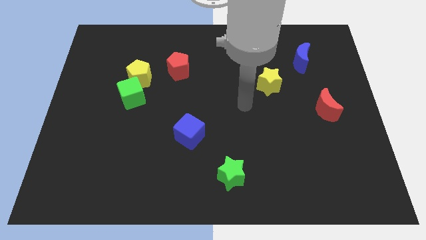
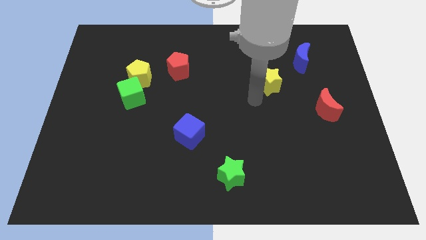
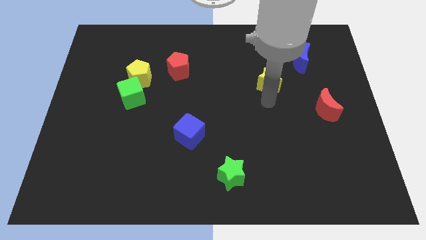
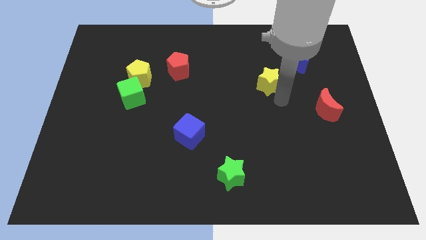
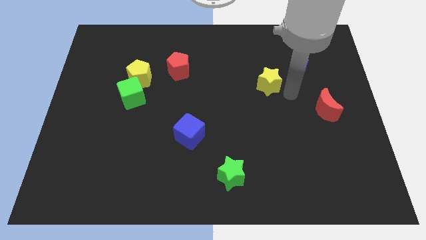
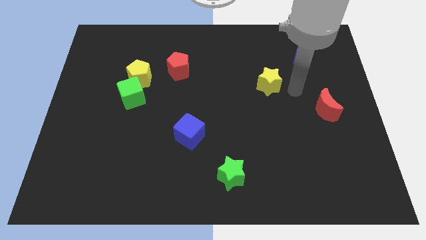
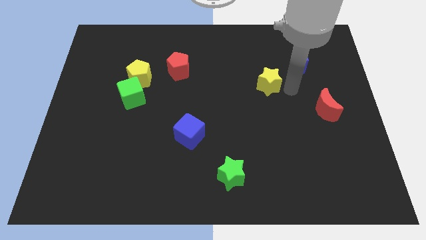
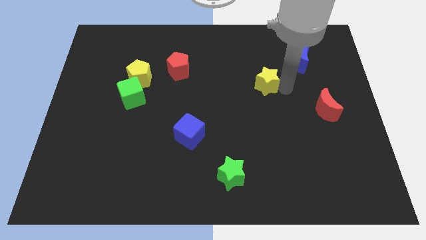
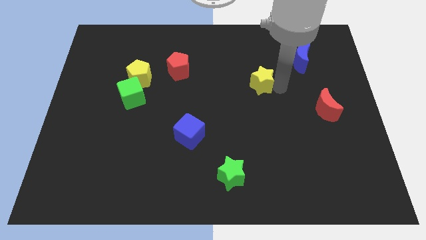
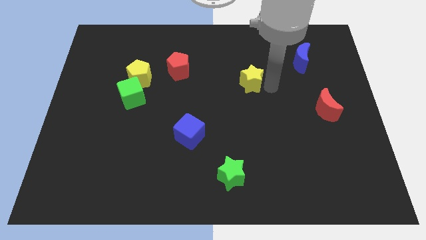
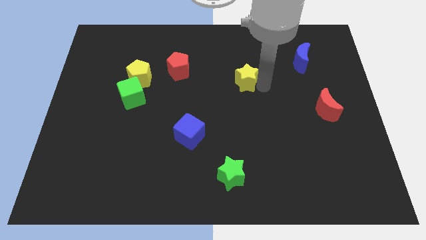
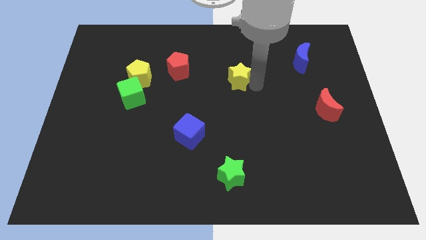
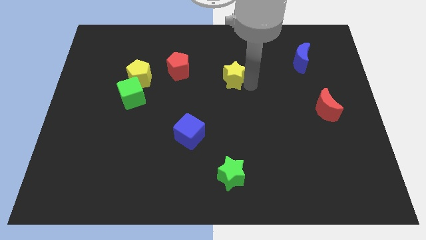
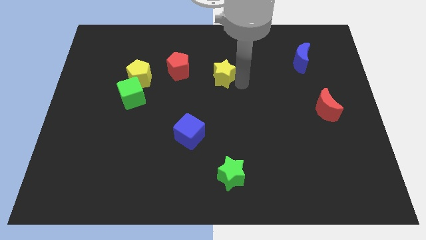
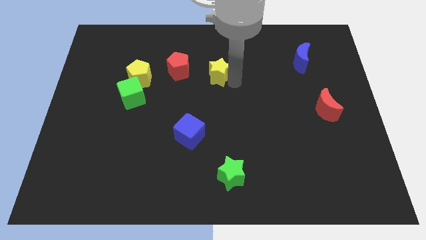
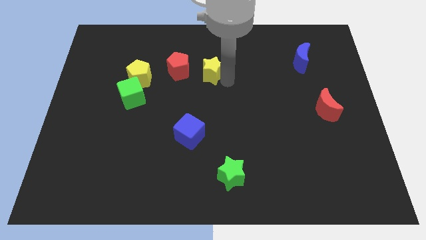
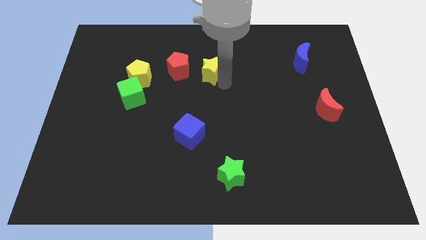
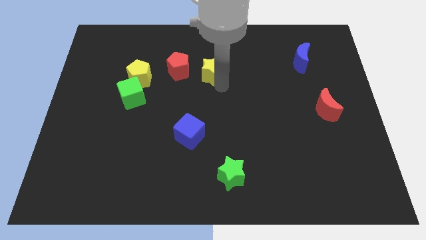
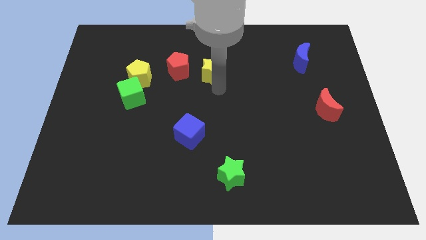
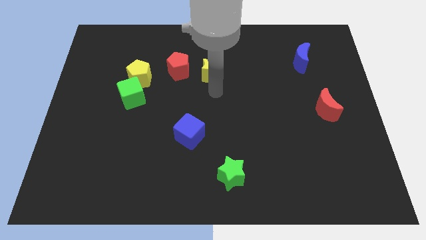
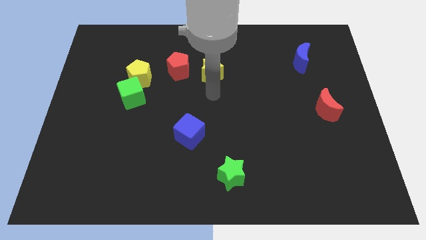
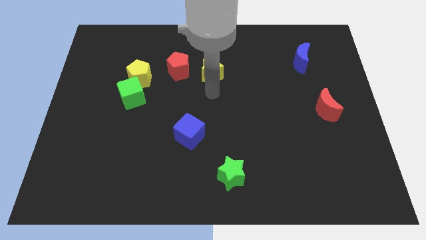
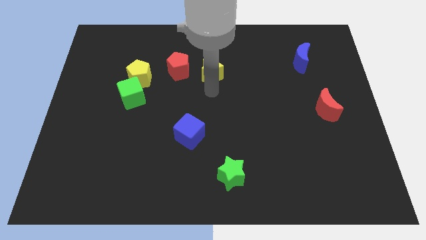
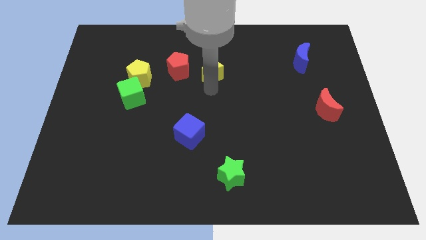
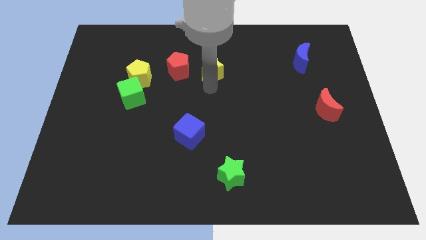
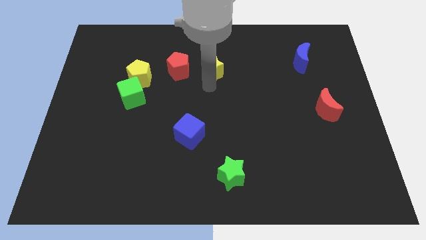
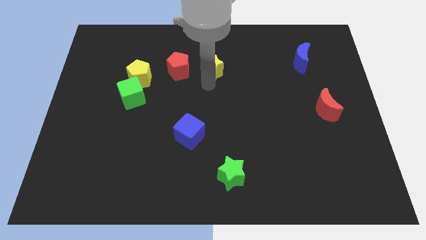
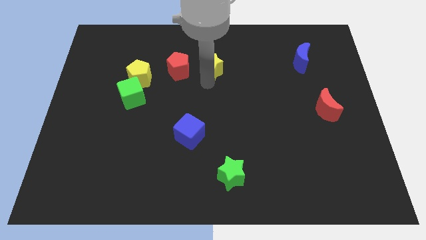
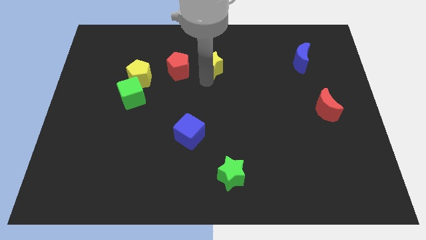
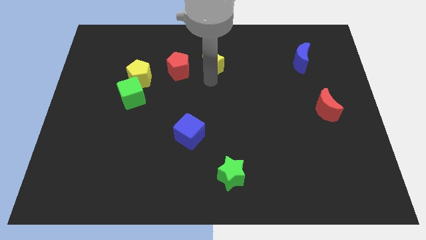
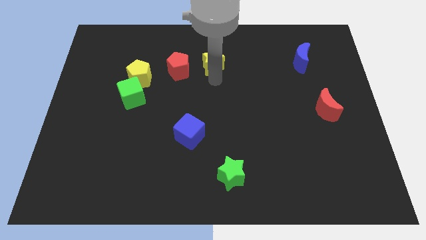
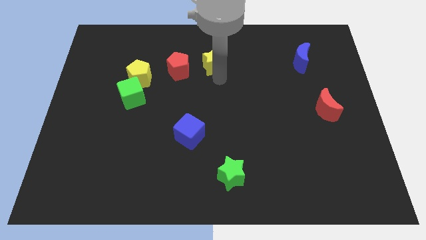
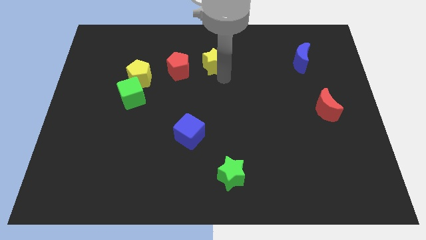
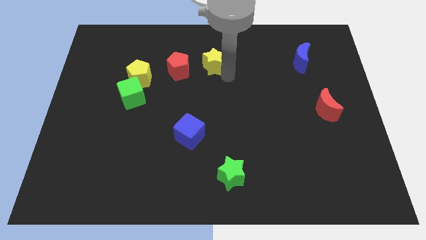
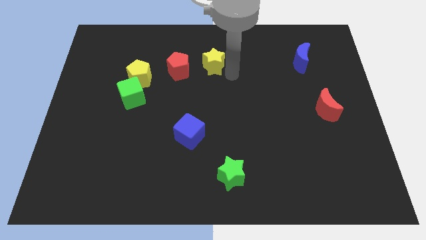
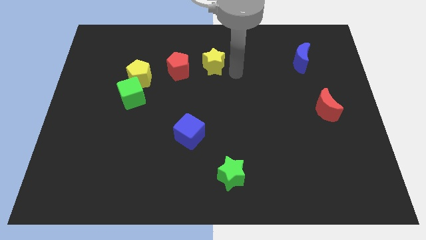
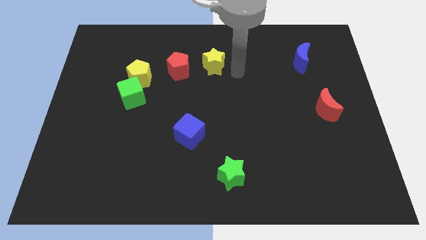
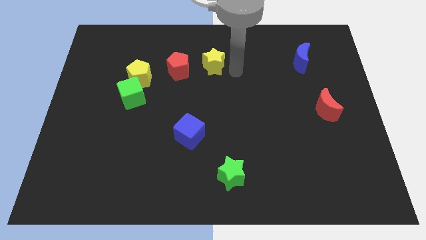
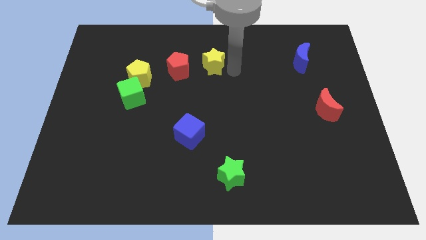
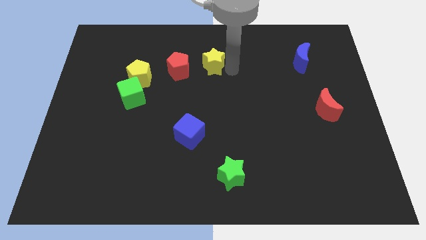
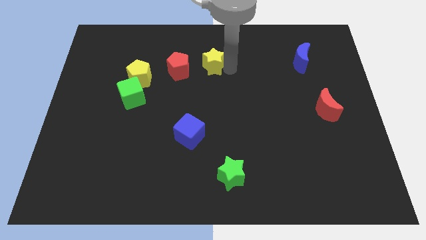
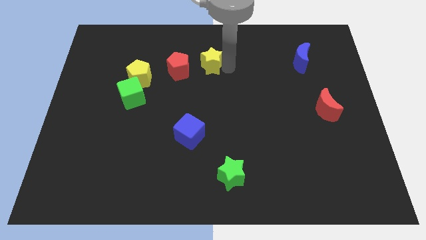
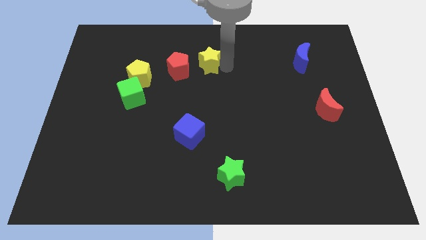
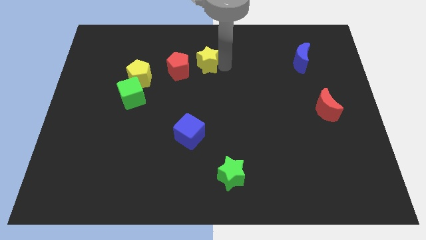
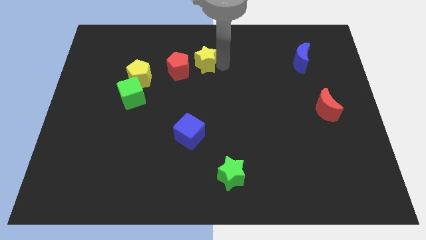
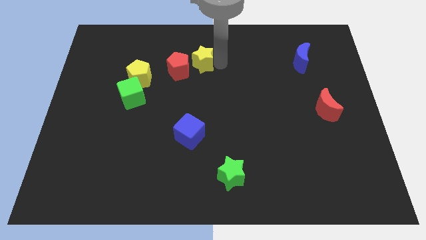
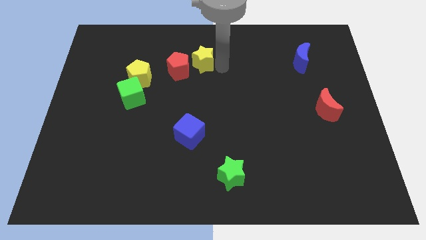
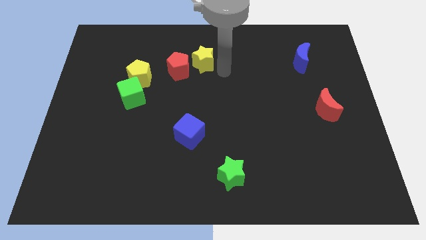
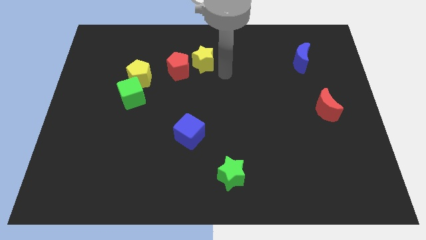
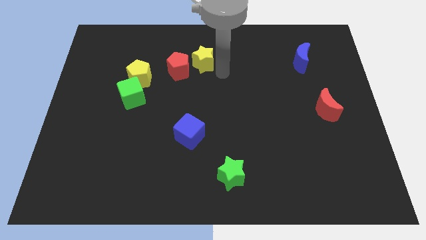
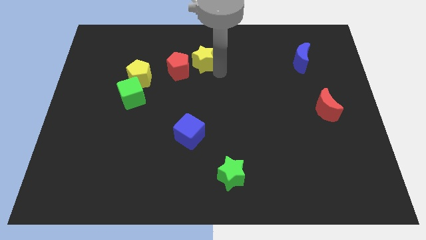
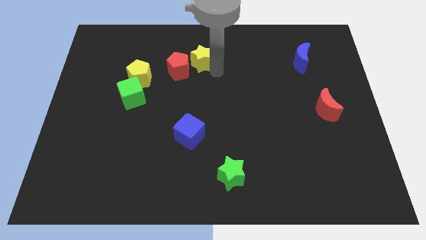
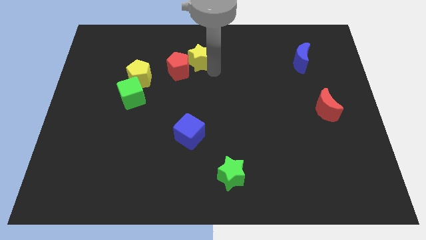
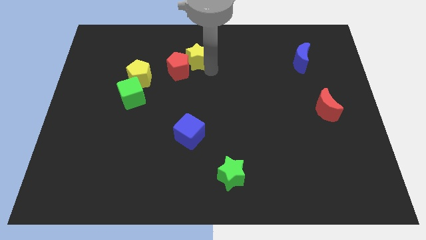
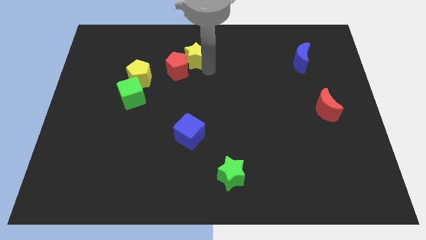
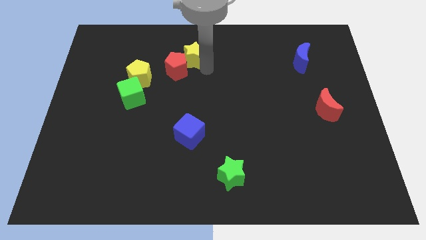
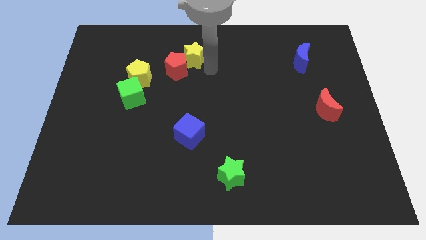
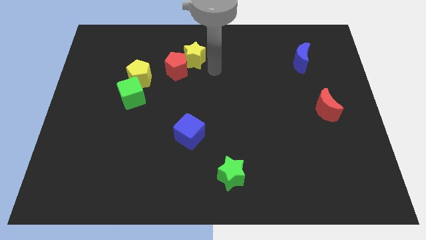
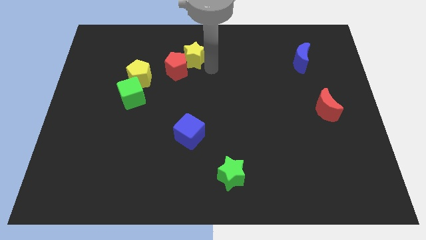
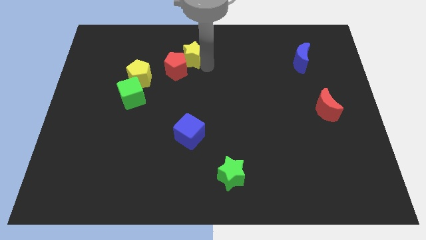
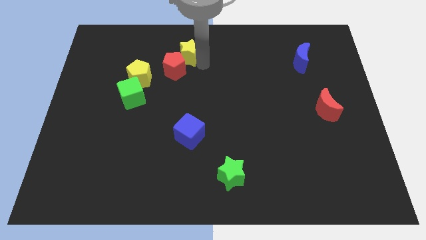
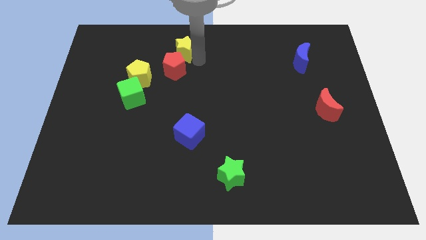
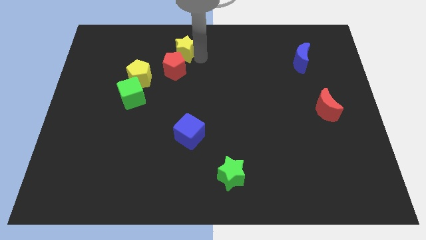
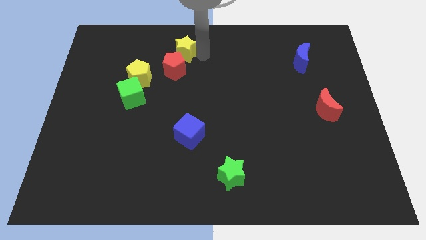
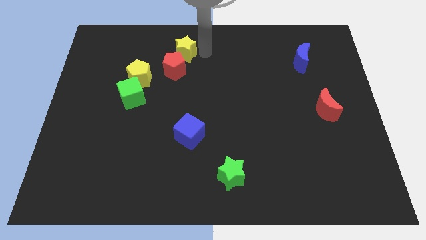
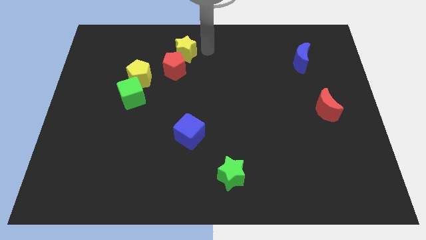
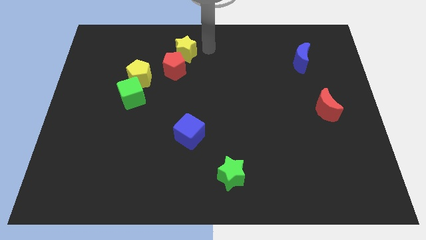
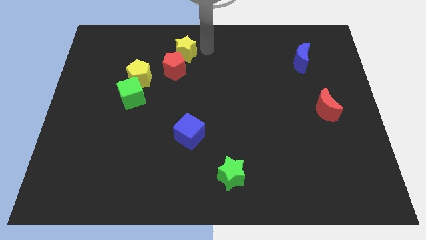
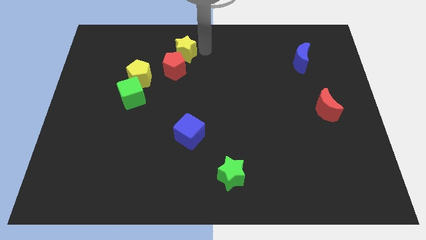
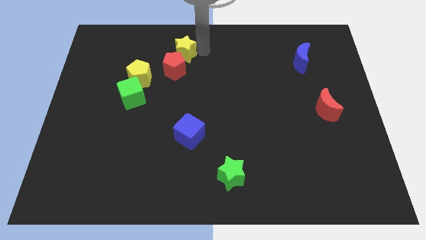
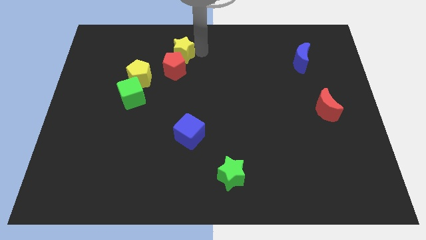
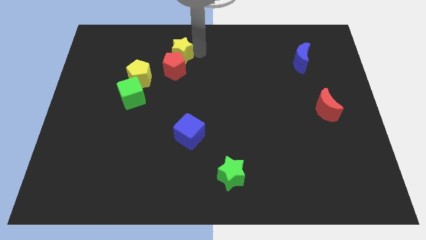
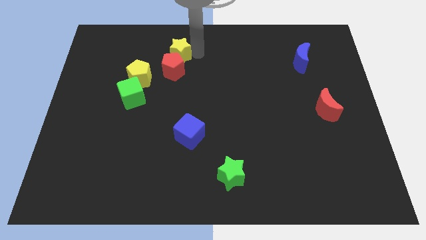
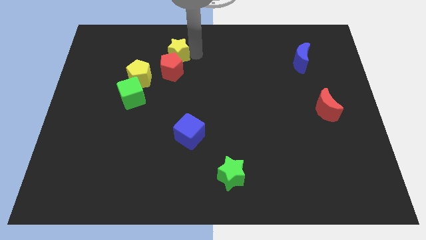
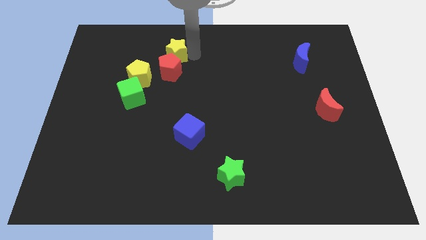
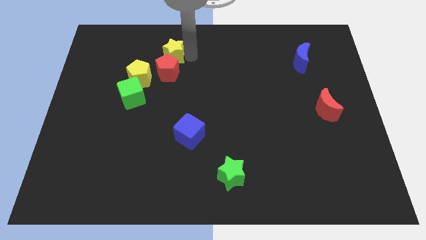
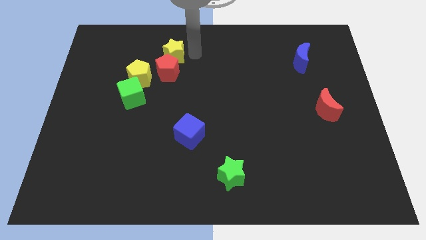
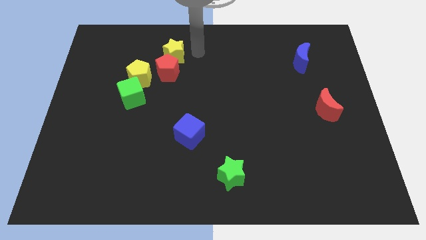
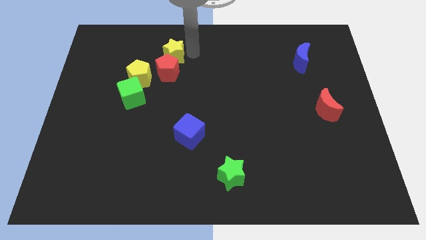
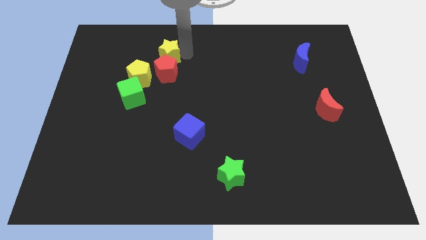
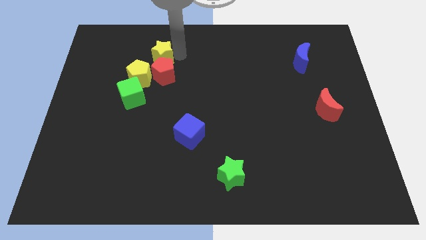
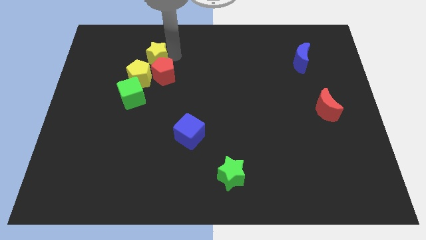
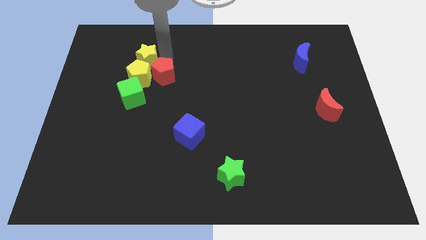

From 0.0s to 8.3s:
slide the yellow star to the top left of the yellow pentagon
